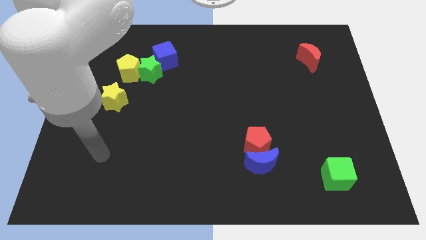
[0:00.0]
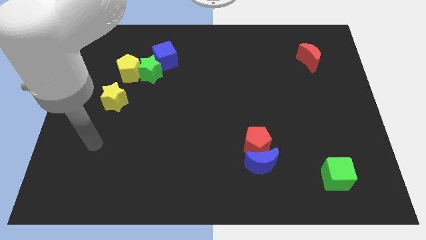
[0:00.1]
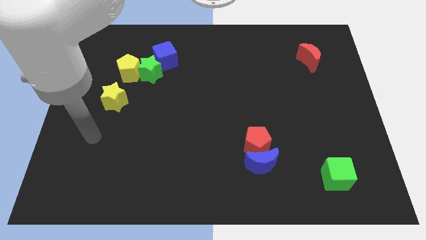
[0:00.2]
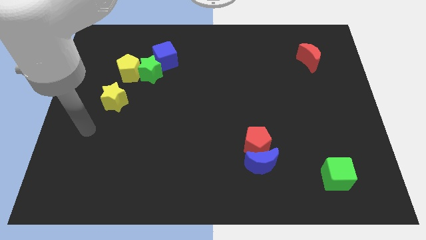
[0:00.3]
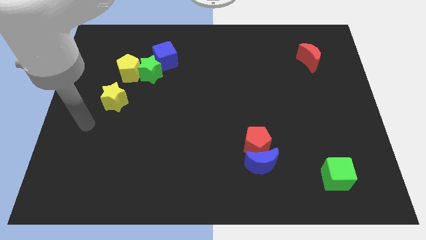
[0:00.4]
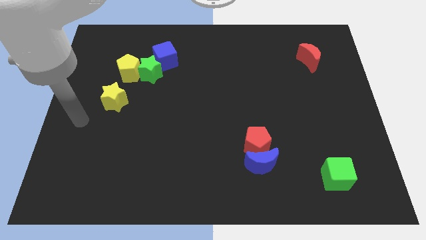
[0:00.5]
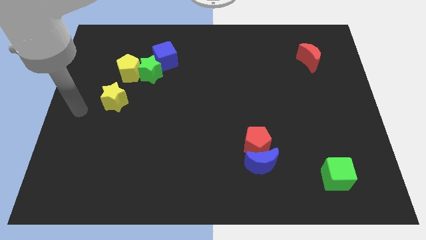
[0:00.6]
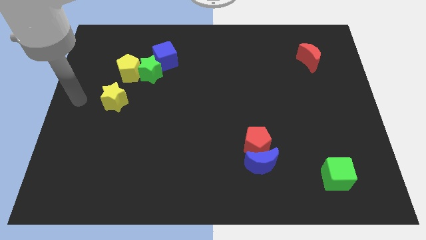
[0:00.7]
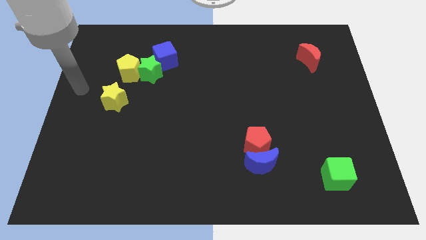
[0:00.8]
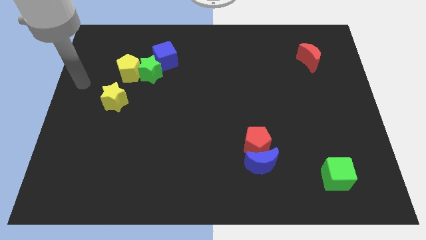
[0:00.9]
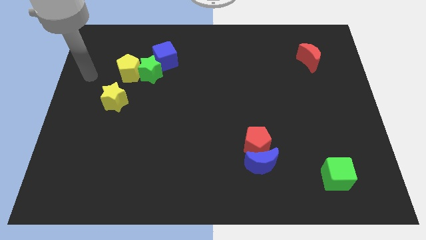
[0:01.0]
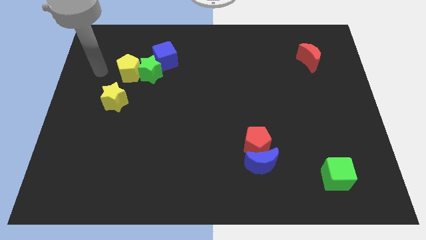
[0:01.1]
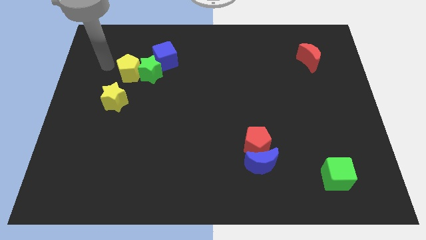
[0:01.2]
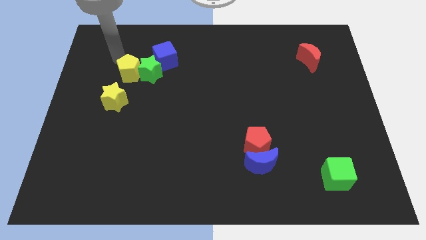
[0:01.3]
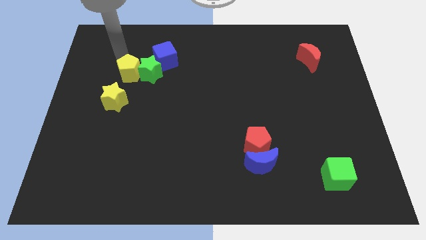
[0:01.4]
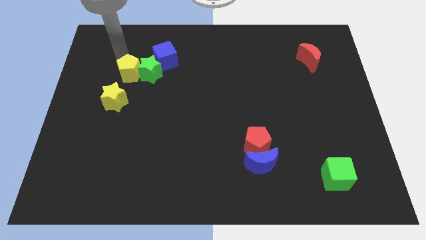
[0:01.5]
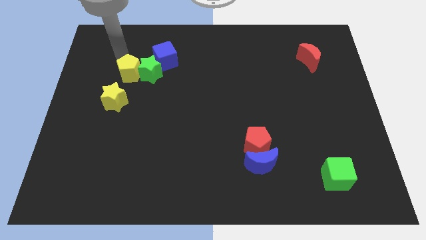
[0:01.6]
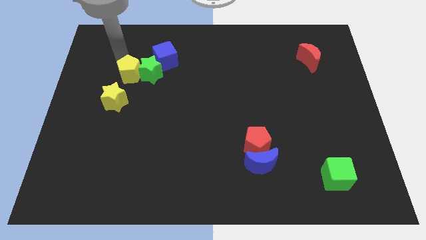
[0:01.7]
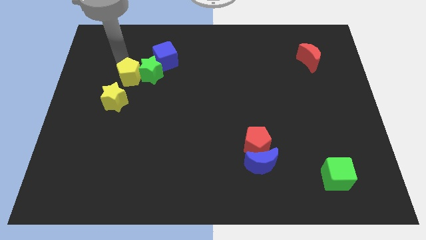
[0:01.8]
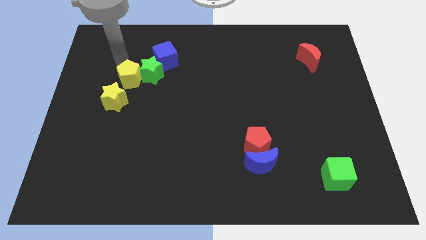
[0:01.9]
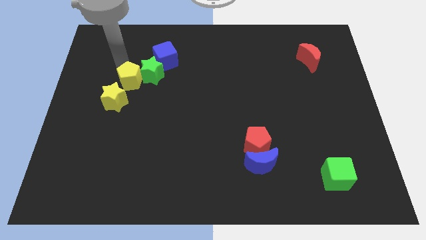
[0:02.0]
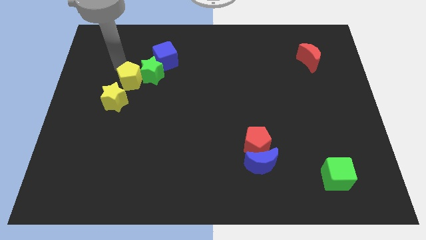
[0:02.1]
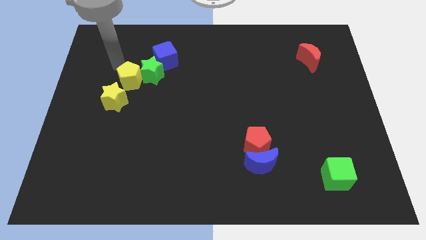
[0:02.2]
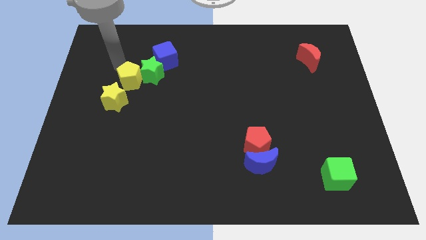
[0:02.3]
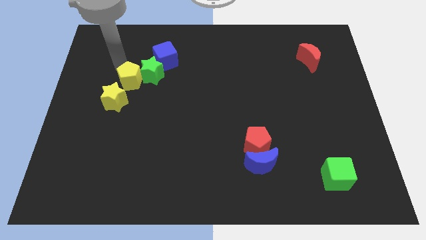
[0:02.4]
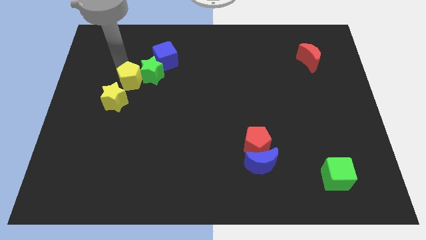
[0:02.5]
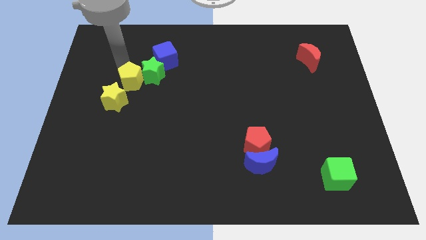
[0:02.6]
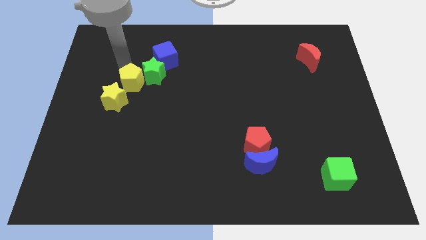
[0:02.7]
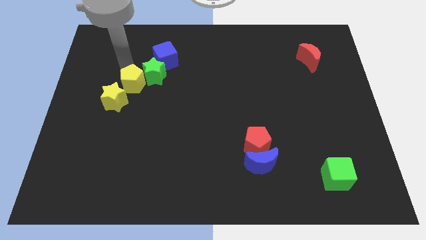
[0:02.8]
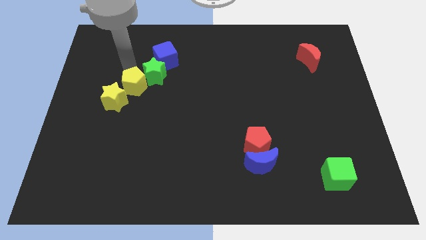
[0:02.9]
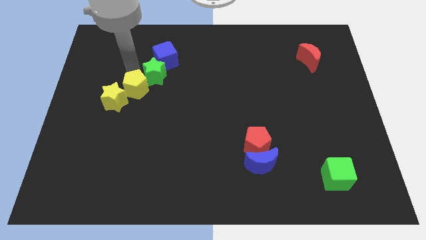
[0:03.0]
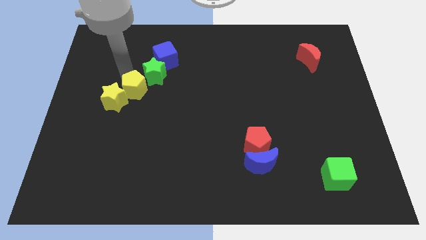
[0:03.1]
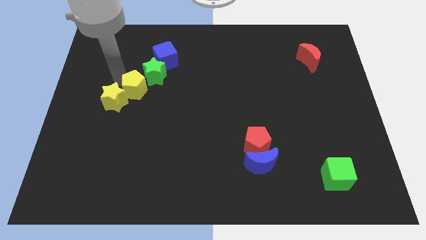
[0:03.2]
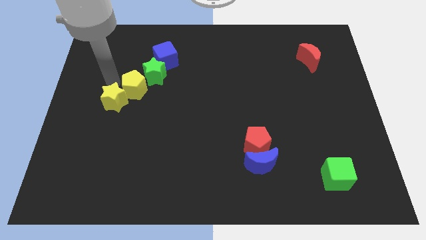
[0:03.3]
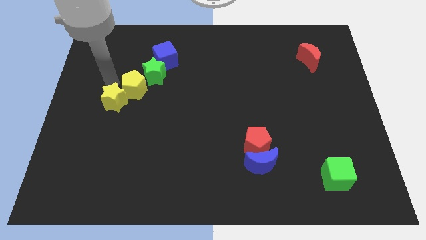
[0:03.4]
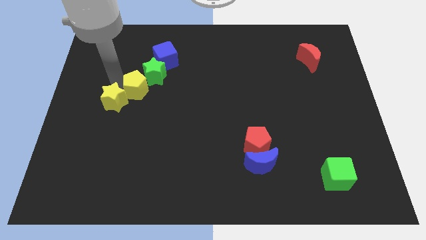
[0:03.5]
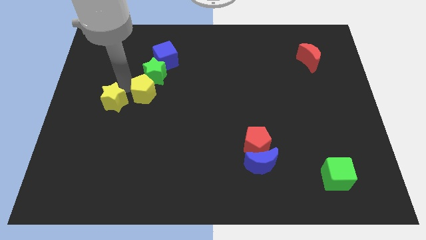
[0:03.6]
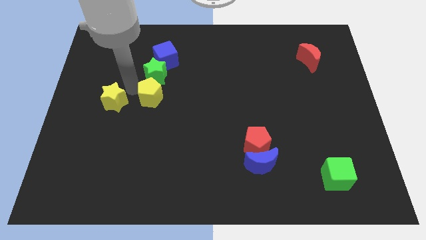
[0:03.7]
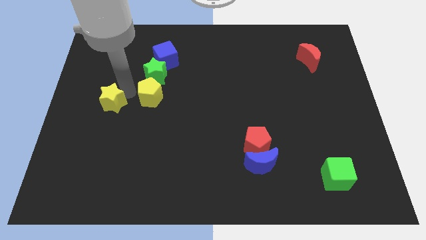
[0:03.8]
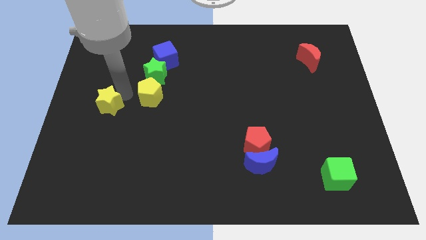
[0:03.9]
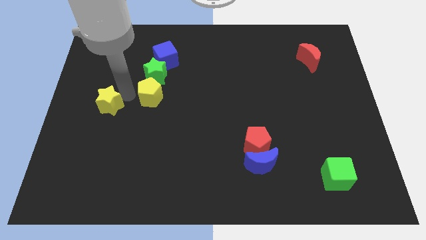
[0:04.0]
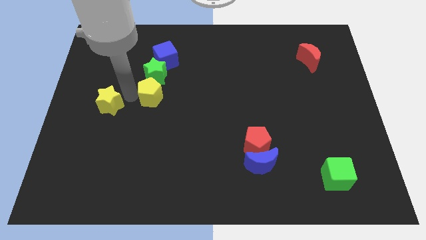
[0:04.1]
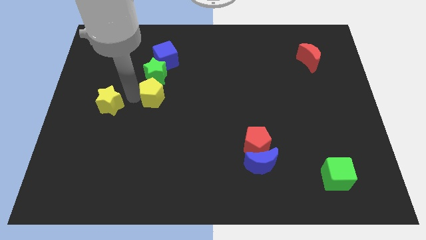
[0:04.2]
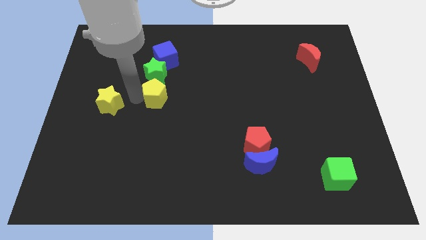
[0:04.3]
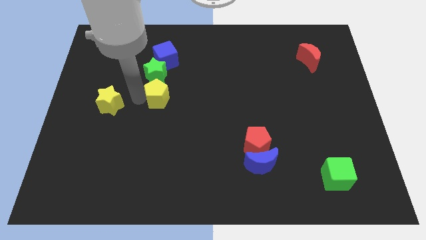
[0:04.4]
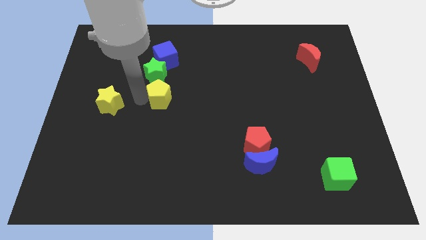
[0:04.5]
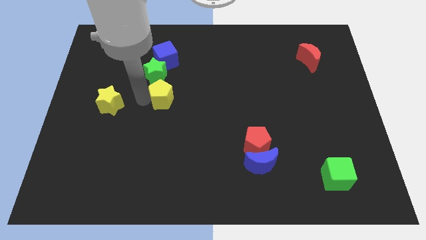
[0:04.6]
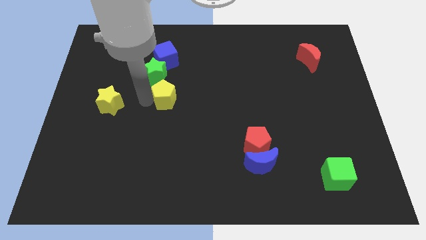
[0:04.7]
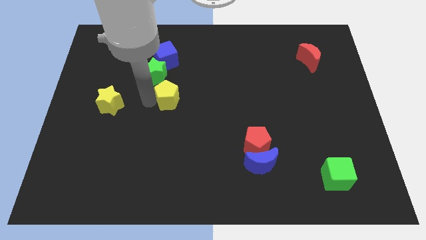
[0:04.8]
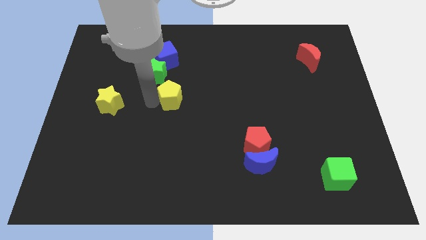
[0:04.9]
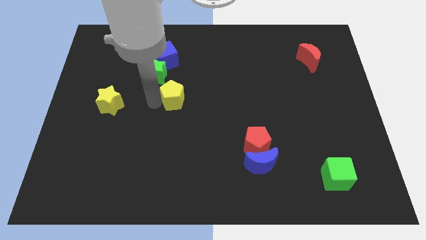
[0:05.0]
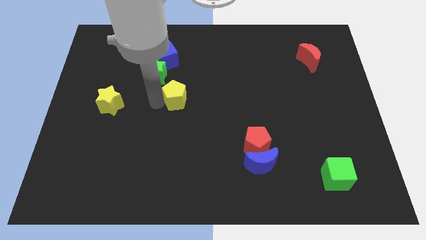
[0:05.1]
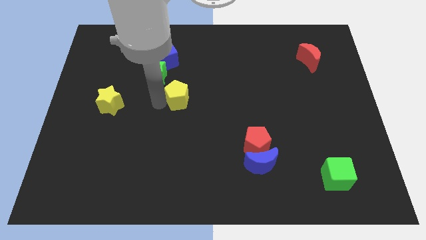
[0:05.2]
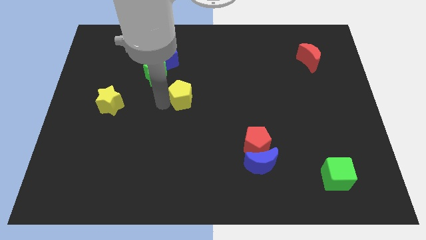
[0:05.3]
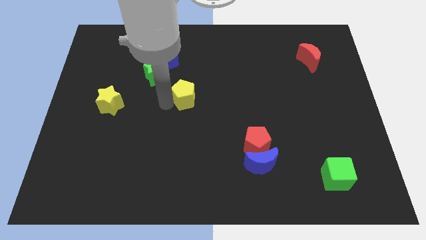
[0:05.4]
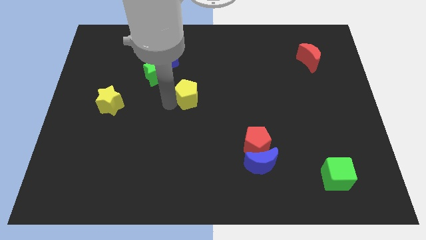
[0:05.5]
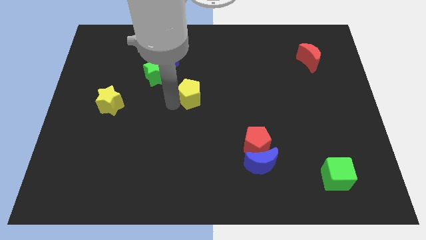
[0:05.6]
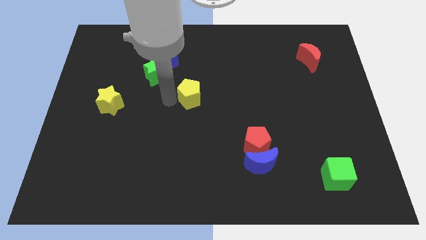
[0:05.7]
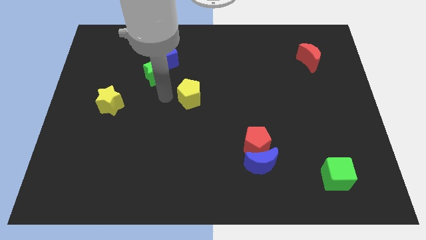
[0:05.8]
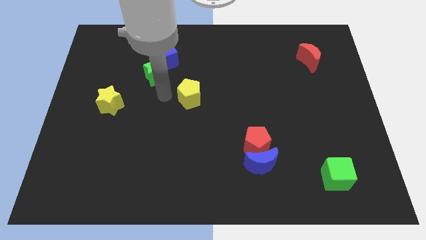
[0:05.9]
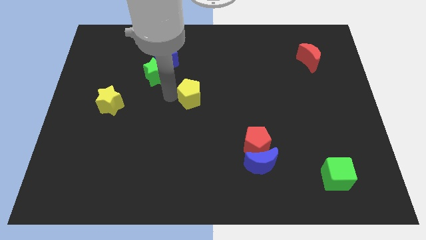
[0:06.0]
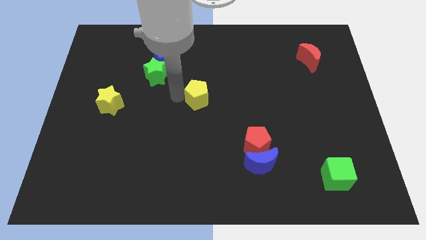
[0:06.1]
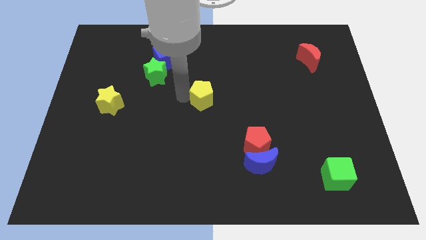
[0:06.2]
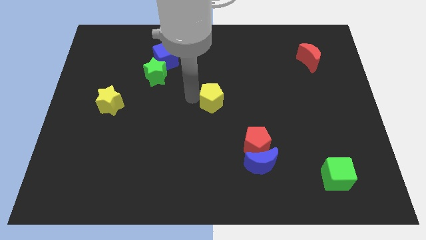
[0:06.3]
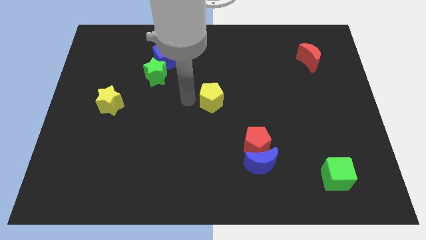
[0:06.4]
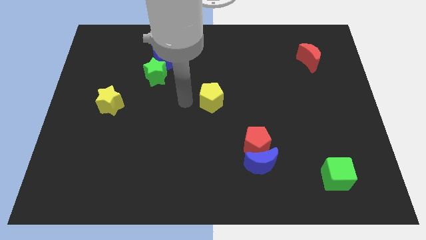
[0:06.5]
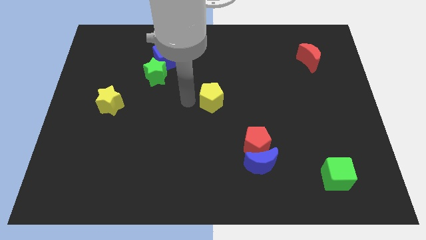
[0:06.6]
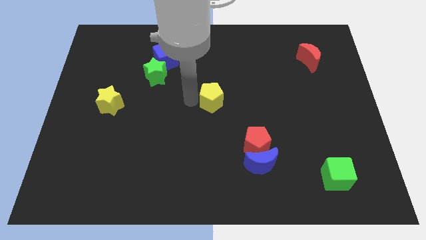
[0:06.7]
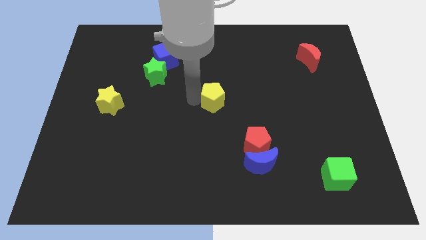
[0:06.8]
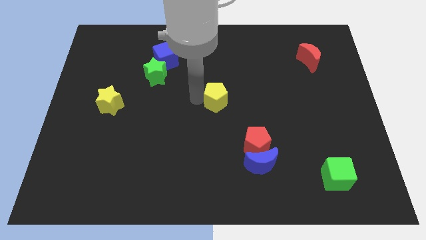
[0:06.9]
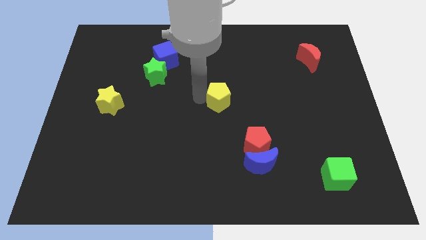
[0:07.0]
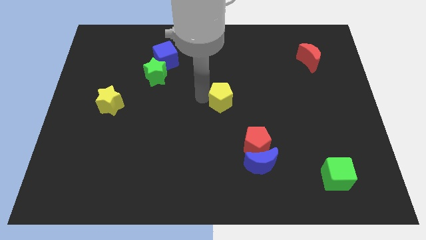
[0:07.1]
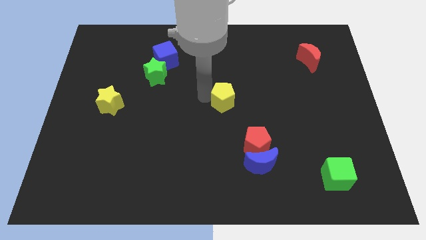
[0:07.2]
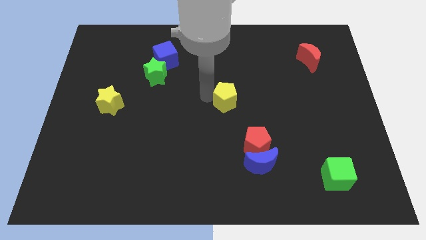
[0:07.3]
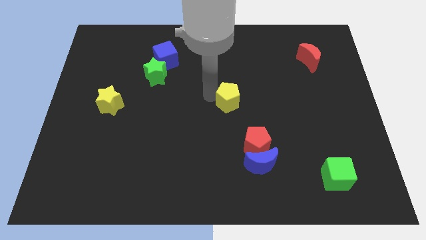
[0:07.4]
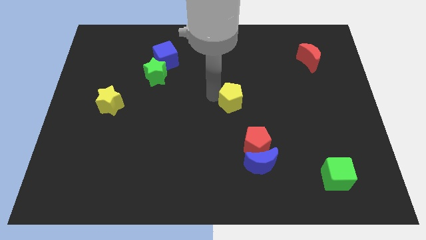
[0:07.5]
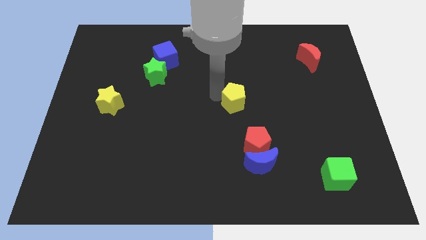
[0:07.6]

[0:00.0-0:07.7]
slide the yellow pentagon to the top of the red pentagon
